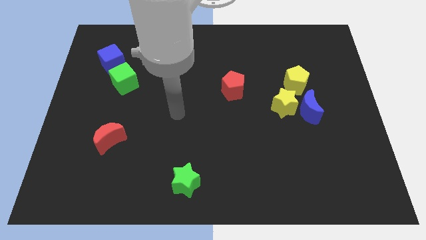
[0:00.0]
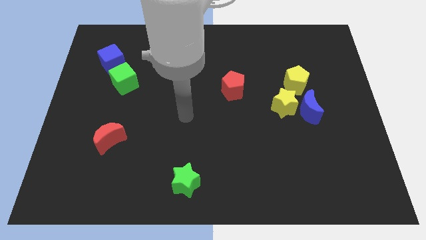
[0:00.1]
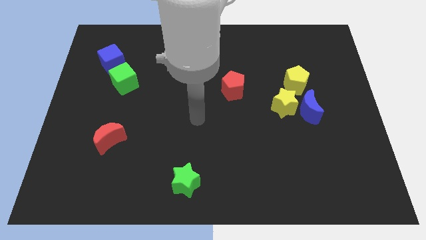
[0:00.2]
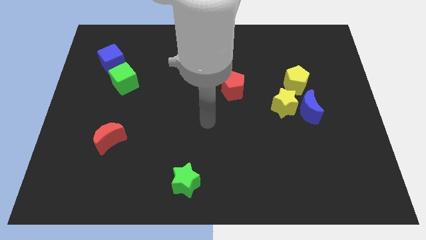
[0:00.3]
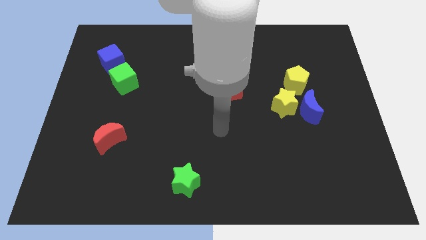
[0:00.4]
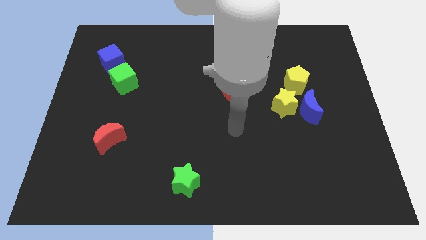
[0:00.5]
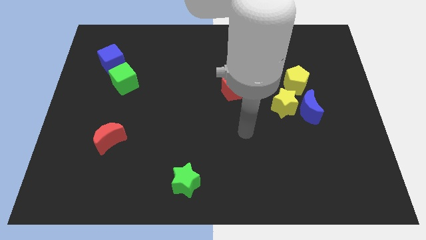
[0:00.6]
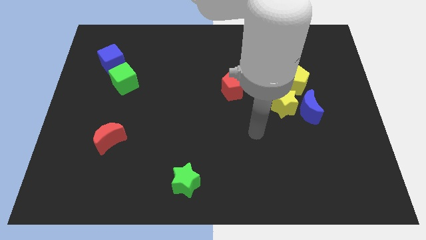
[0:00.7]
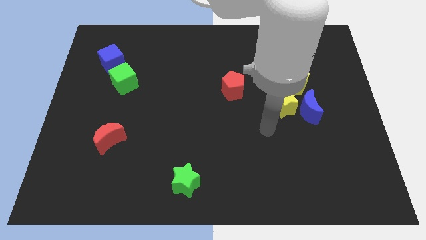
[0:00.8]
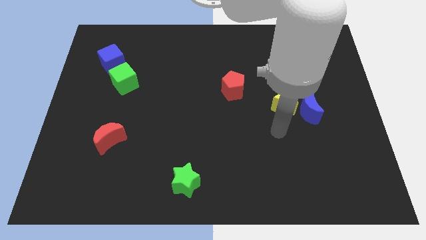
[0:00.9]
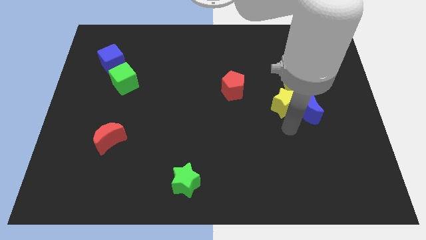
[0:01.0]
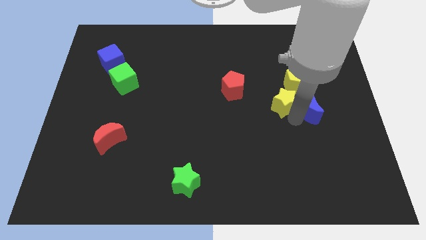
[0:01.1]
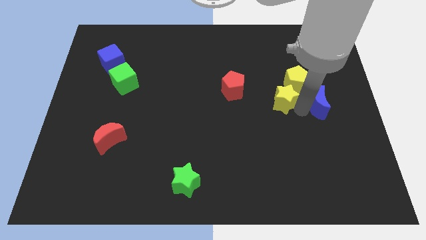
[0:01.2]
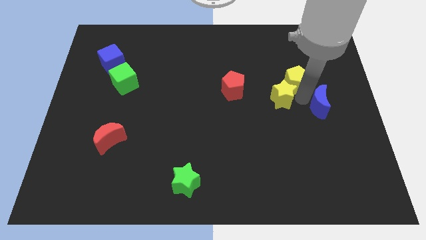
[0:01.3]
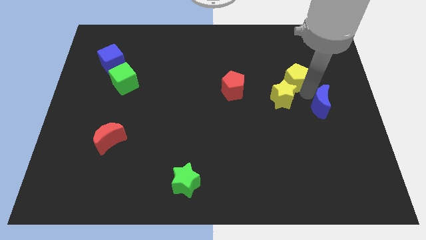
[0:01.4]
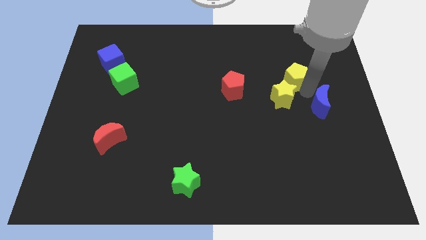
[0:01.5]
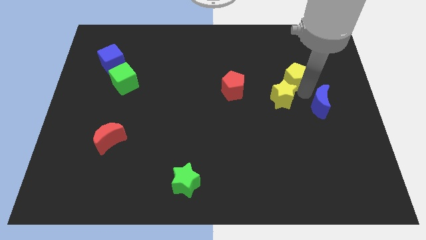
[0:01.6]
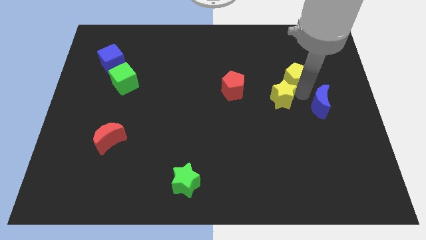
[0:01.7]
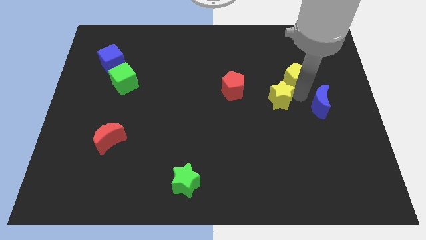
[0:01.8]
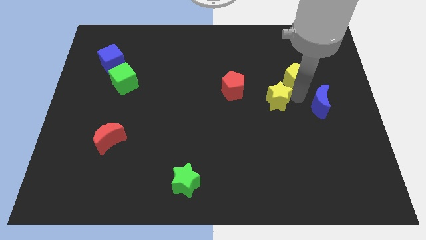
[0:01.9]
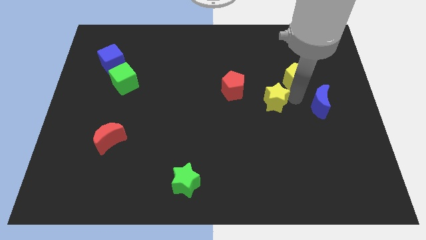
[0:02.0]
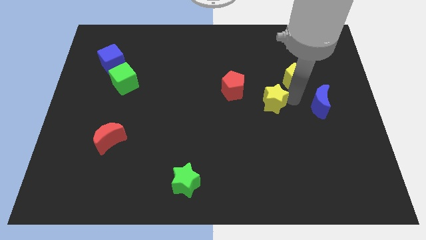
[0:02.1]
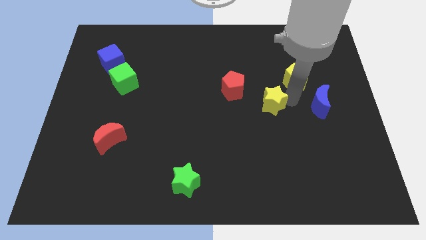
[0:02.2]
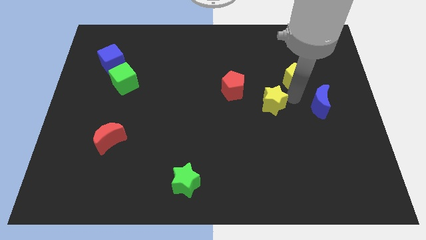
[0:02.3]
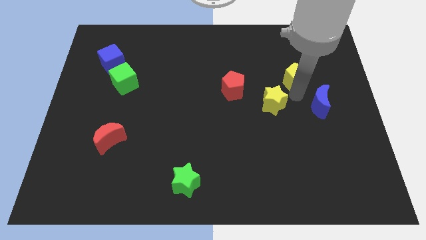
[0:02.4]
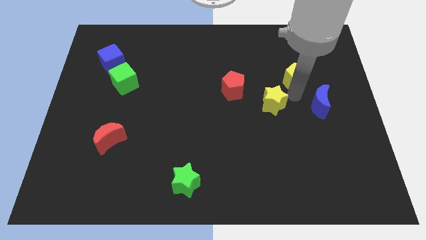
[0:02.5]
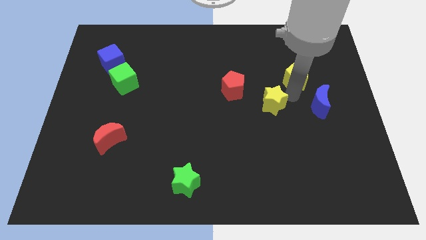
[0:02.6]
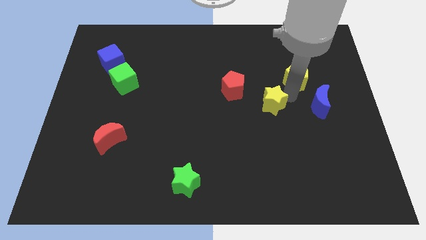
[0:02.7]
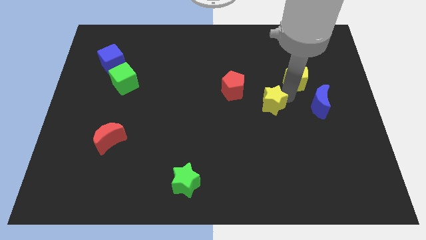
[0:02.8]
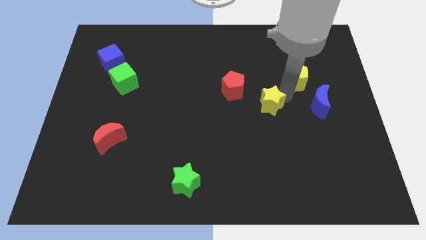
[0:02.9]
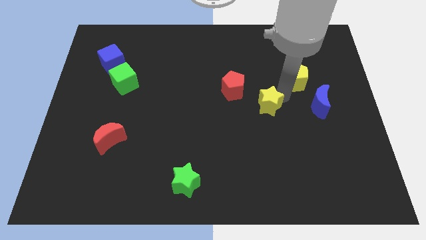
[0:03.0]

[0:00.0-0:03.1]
move the yellow star away from the blue moon and yellow pentagon

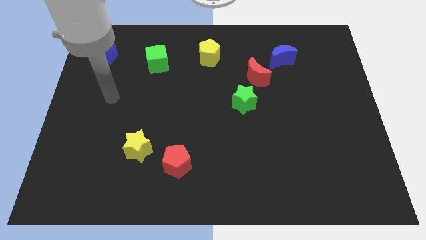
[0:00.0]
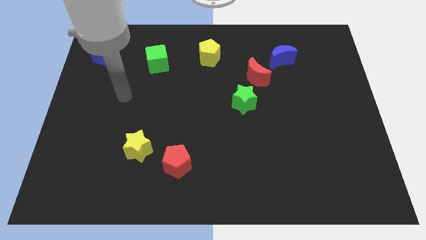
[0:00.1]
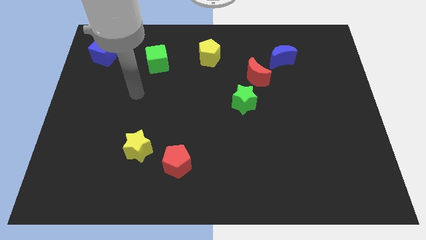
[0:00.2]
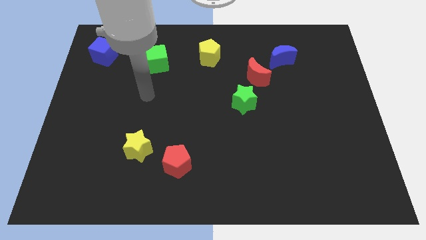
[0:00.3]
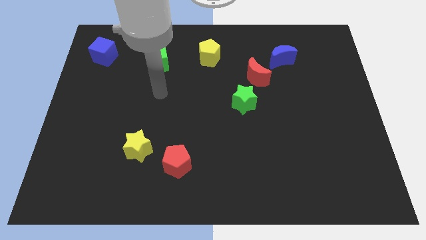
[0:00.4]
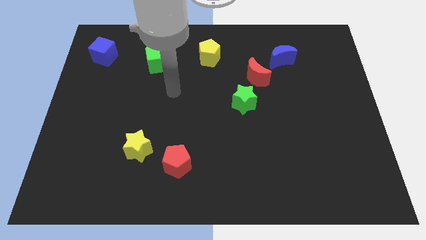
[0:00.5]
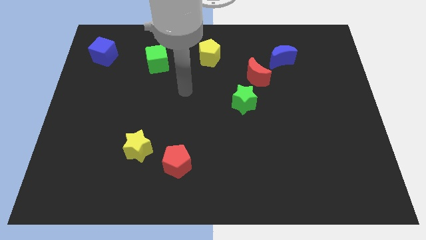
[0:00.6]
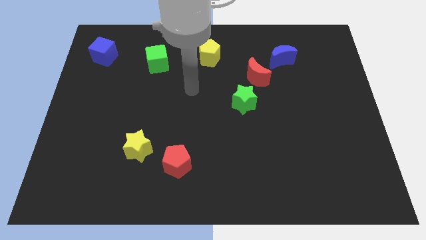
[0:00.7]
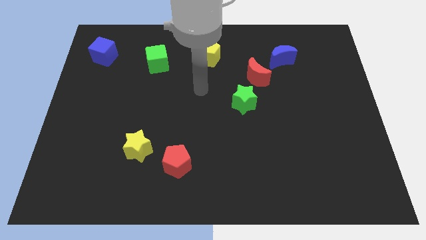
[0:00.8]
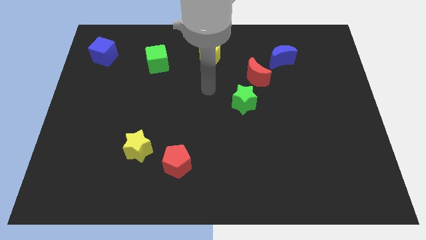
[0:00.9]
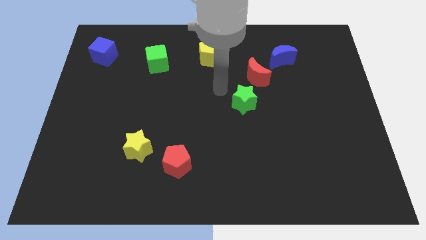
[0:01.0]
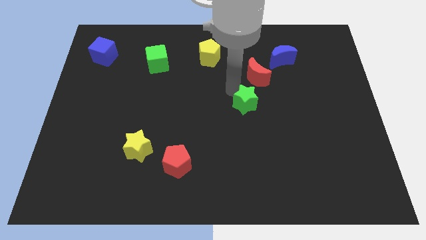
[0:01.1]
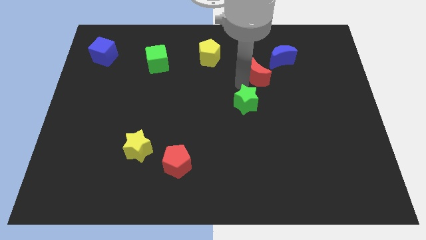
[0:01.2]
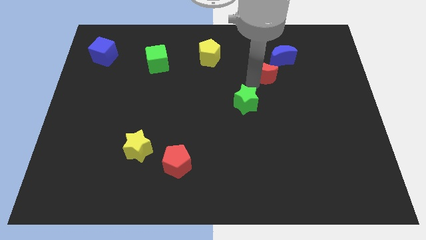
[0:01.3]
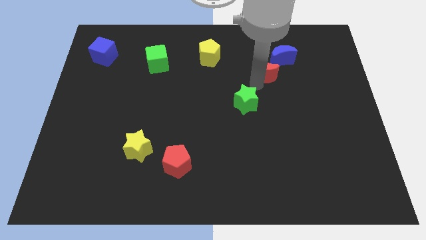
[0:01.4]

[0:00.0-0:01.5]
separate the green star from the red moon

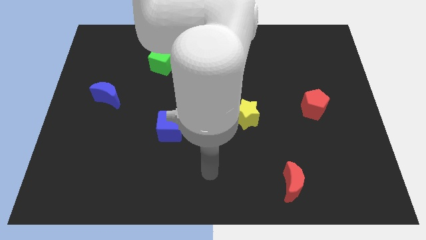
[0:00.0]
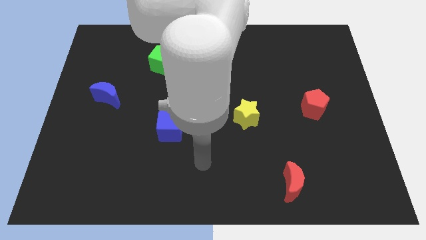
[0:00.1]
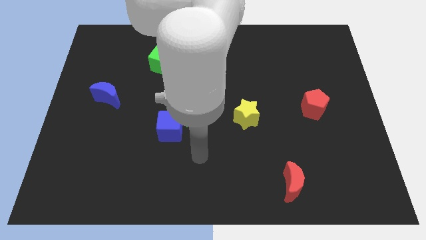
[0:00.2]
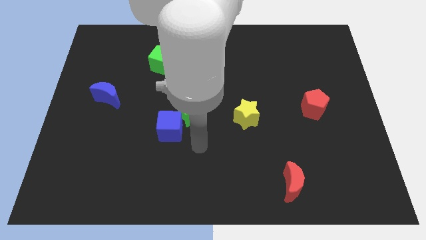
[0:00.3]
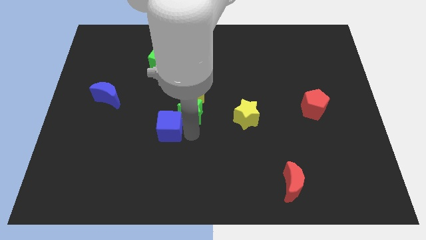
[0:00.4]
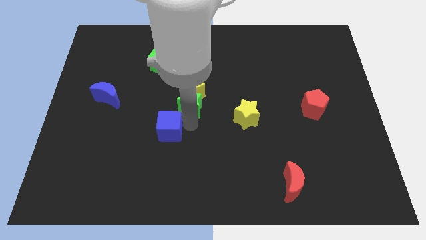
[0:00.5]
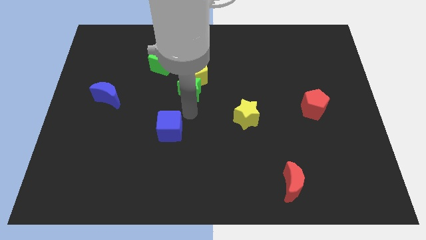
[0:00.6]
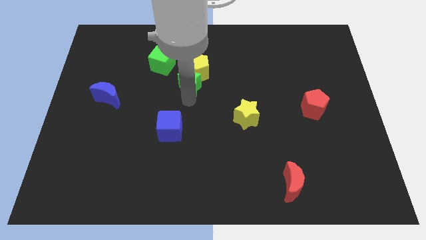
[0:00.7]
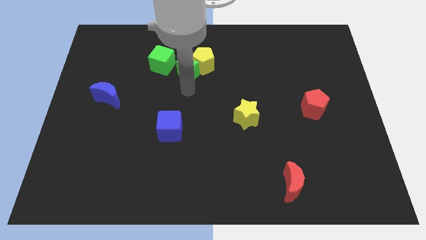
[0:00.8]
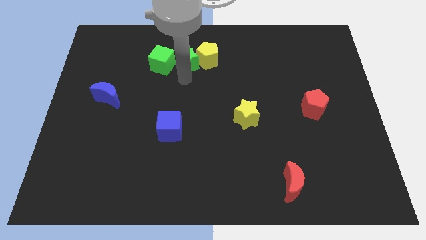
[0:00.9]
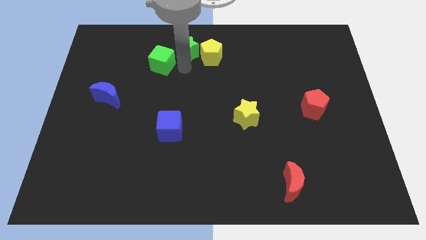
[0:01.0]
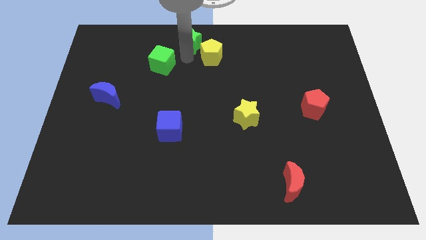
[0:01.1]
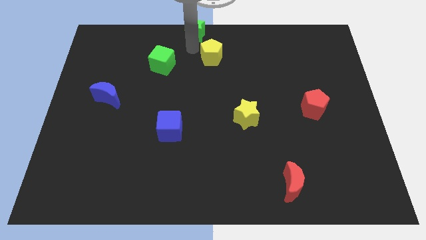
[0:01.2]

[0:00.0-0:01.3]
move the yellow pentagon away from the green star

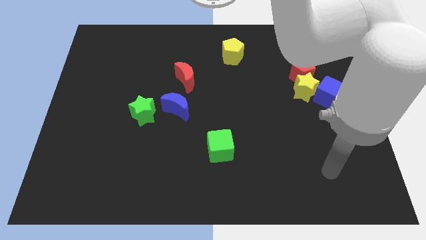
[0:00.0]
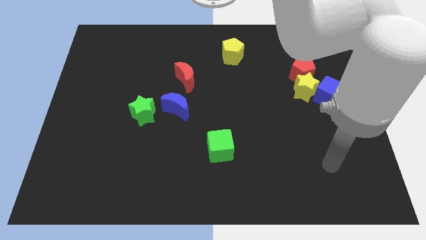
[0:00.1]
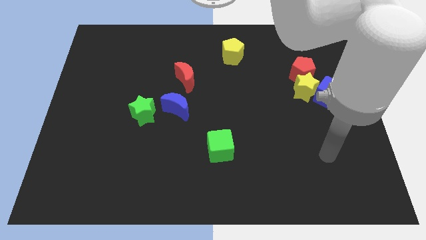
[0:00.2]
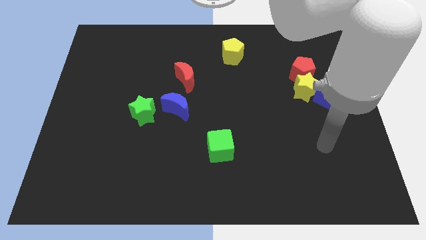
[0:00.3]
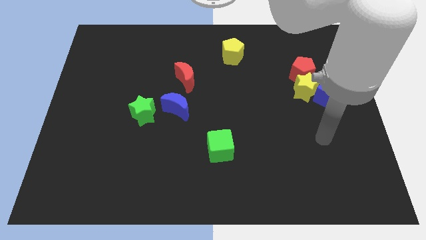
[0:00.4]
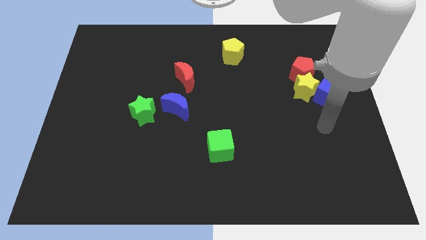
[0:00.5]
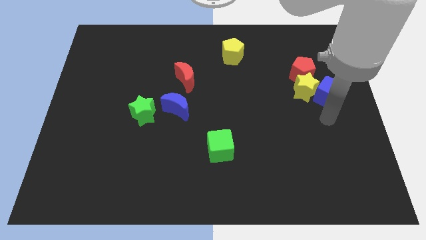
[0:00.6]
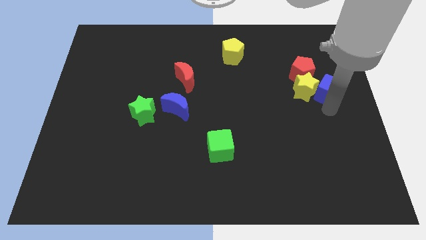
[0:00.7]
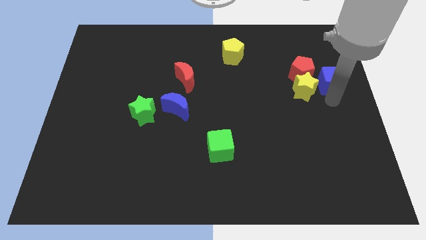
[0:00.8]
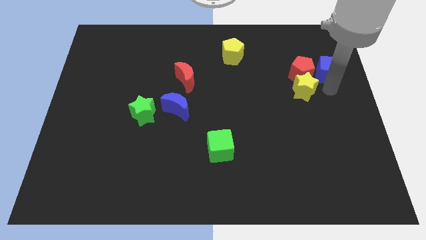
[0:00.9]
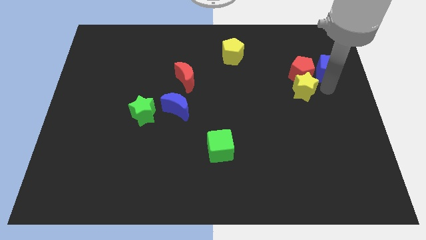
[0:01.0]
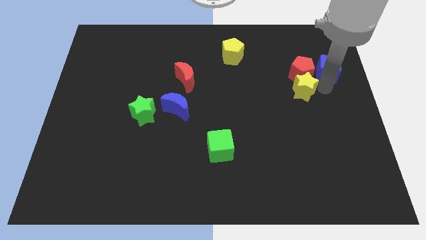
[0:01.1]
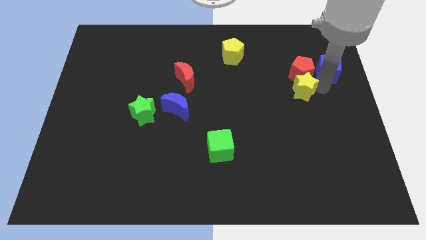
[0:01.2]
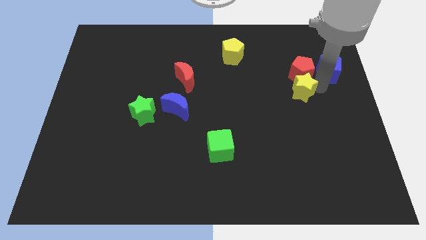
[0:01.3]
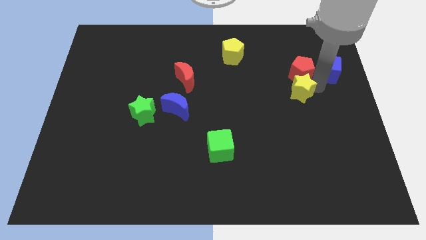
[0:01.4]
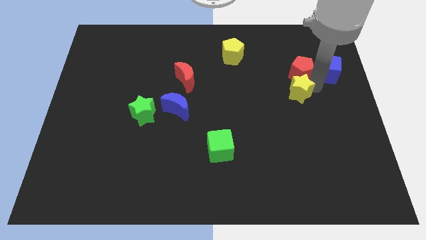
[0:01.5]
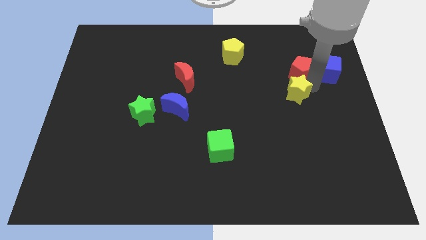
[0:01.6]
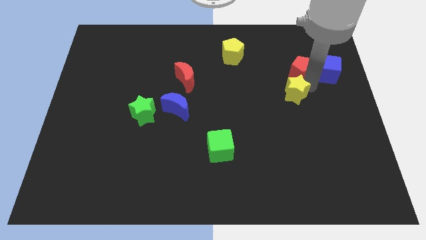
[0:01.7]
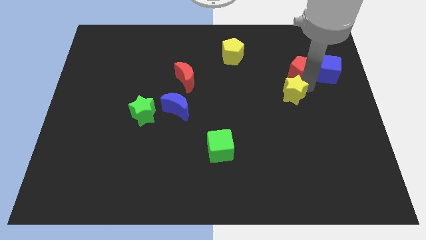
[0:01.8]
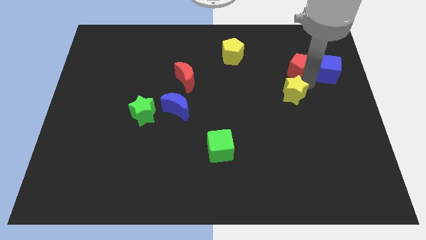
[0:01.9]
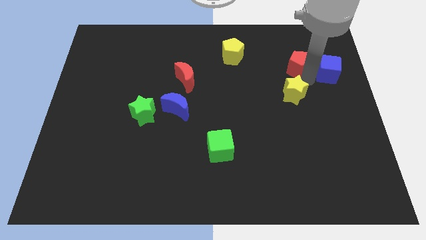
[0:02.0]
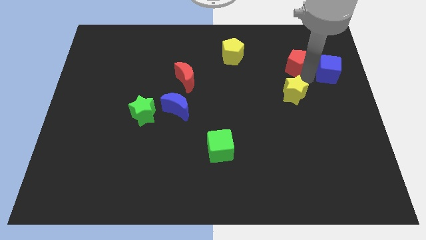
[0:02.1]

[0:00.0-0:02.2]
separate the yellow star from the red pentagon and blue cube

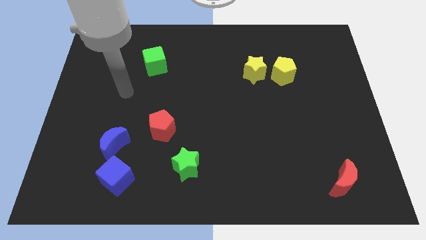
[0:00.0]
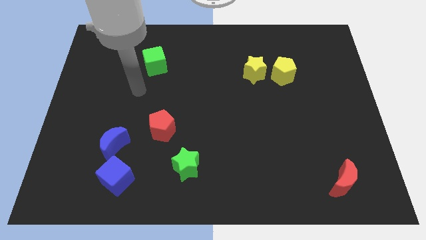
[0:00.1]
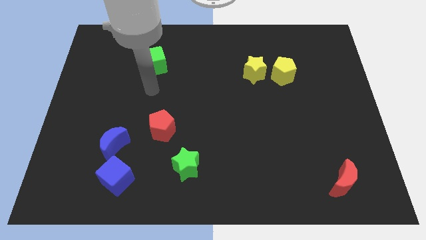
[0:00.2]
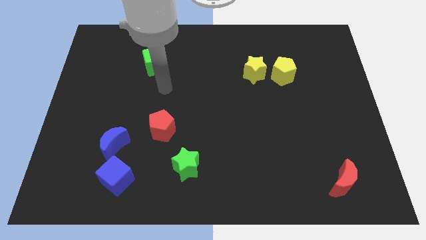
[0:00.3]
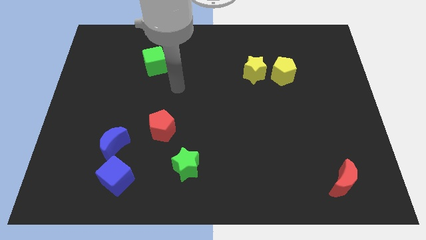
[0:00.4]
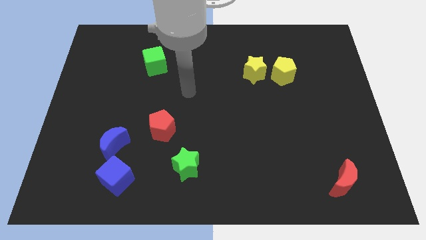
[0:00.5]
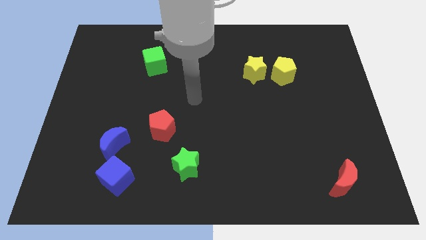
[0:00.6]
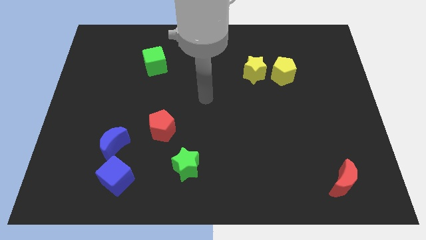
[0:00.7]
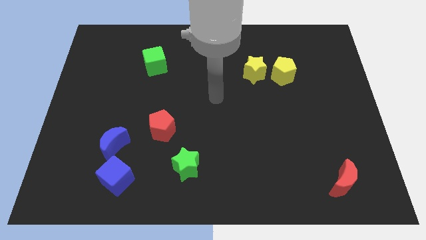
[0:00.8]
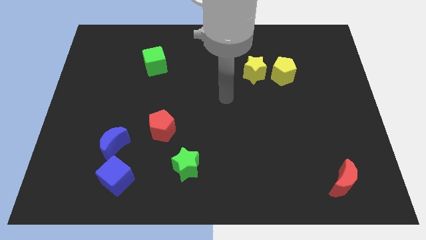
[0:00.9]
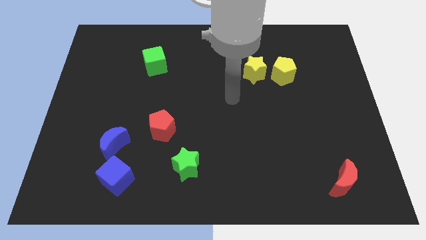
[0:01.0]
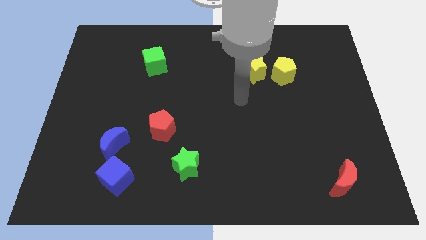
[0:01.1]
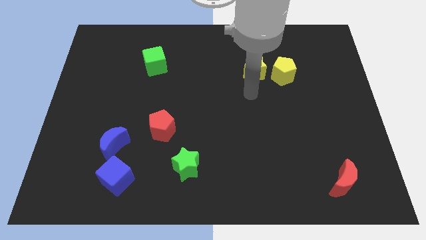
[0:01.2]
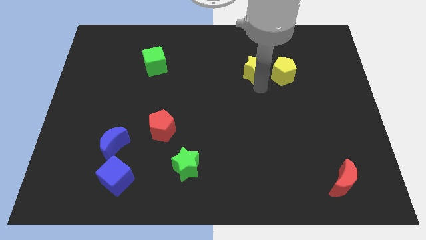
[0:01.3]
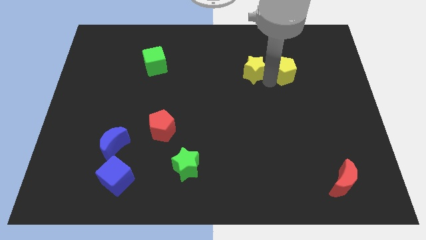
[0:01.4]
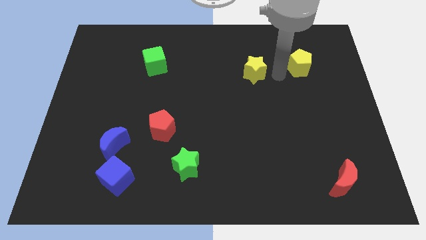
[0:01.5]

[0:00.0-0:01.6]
separate the yellow star from the yellow pentagon
